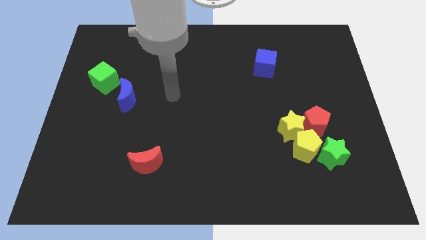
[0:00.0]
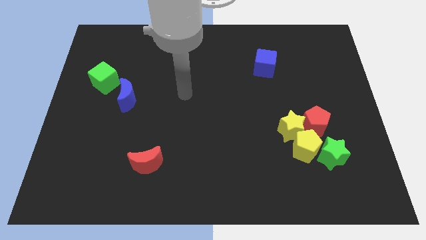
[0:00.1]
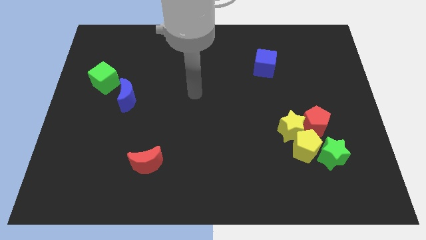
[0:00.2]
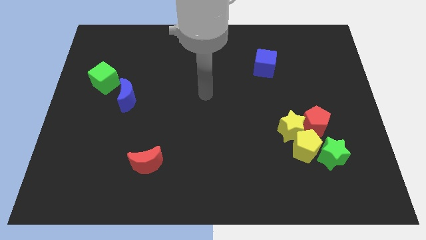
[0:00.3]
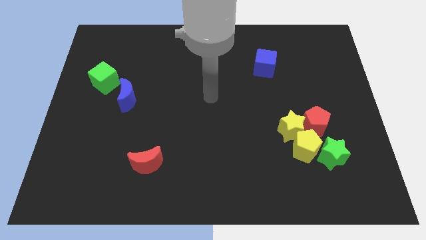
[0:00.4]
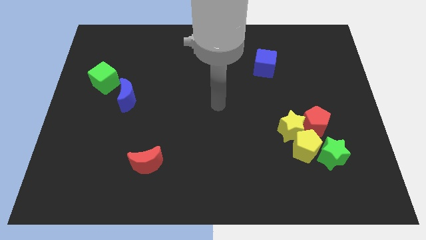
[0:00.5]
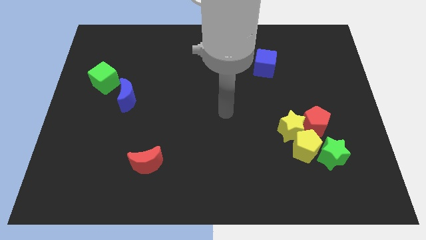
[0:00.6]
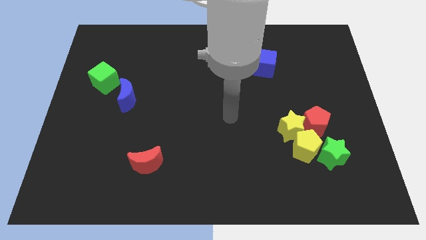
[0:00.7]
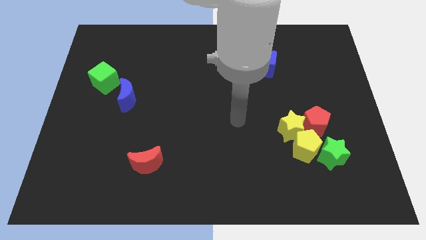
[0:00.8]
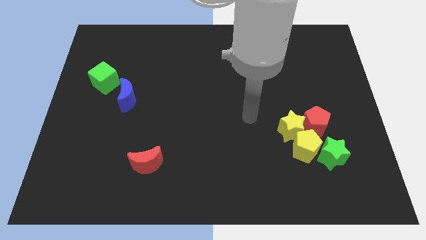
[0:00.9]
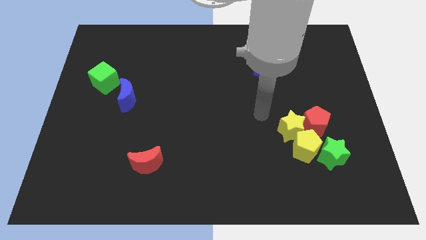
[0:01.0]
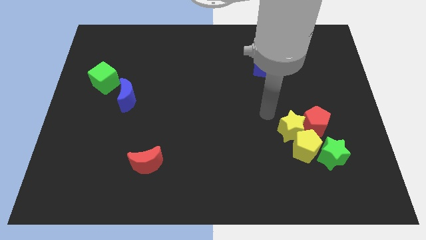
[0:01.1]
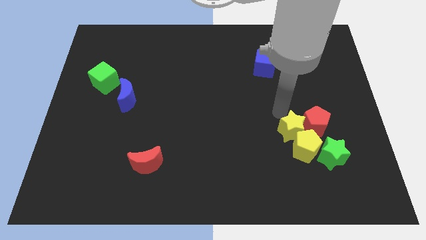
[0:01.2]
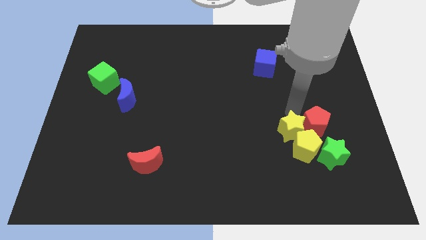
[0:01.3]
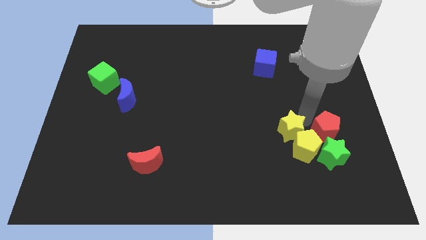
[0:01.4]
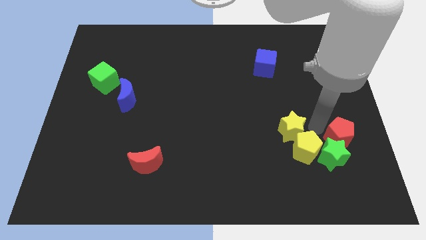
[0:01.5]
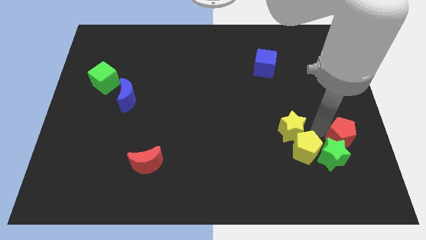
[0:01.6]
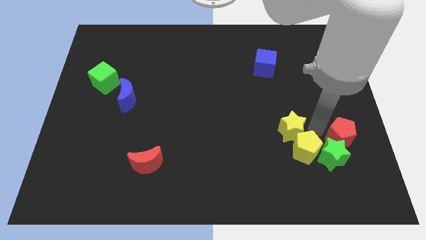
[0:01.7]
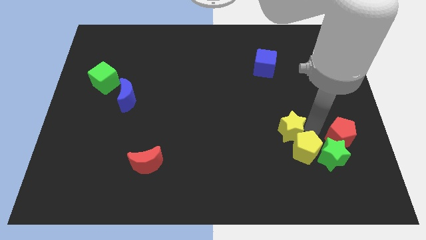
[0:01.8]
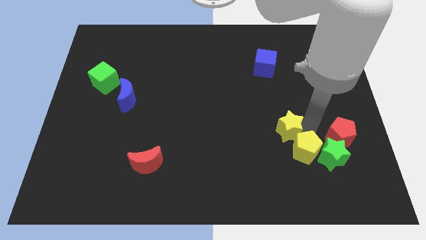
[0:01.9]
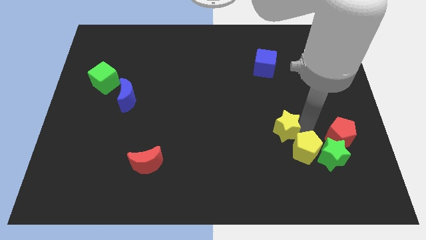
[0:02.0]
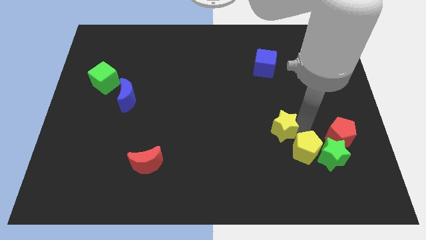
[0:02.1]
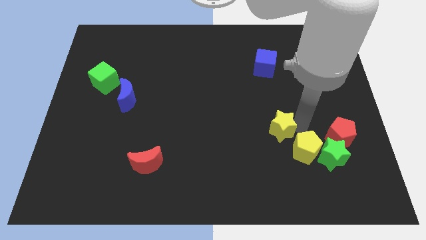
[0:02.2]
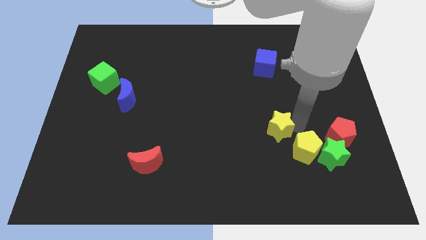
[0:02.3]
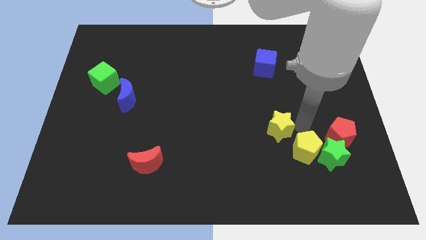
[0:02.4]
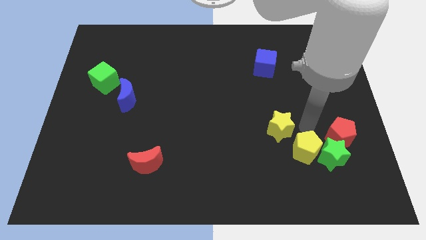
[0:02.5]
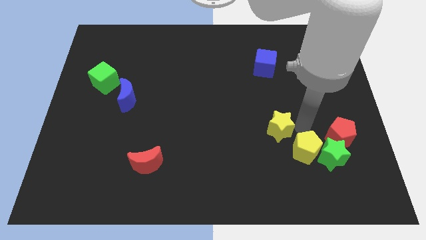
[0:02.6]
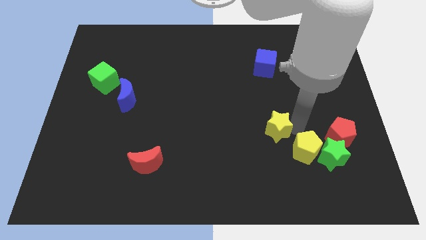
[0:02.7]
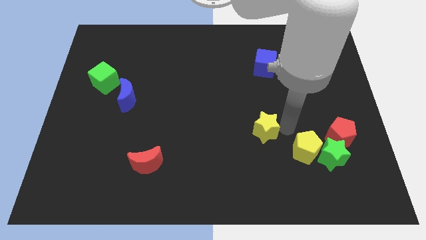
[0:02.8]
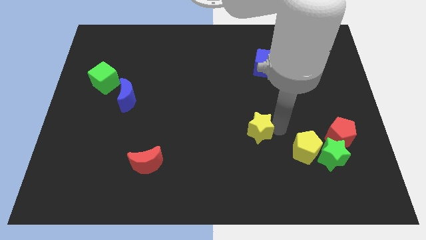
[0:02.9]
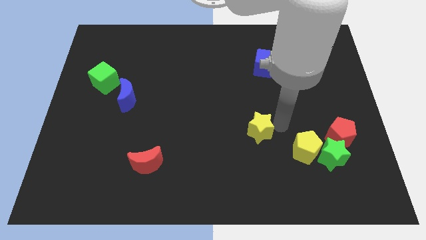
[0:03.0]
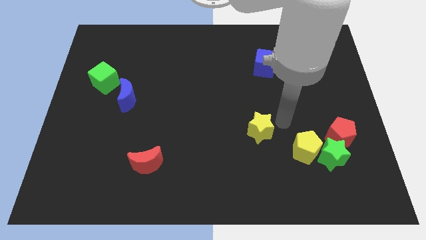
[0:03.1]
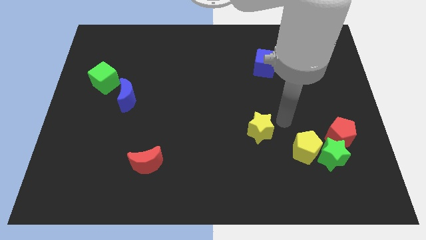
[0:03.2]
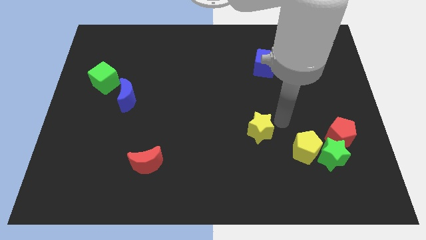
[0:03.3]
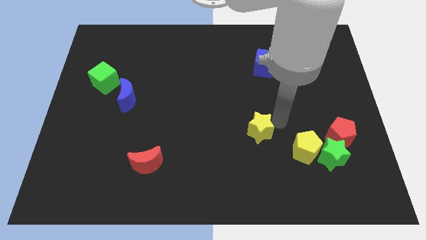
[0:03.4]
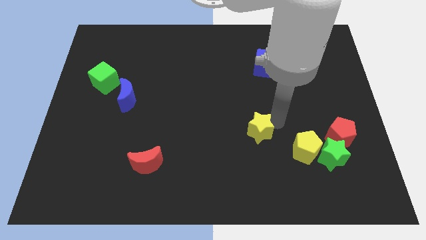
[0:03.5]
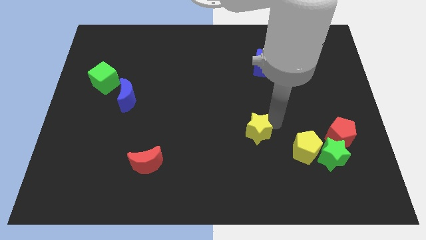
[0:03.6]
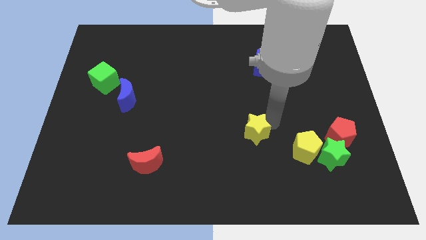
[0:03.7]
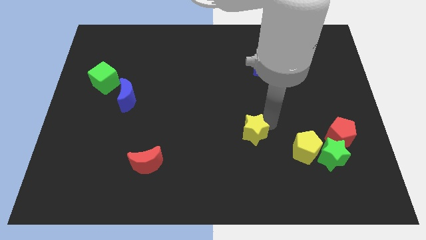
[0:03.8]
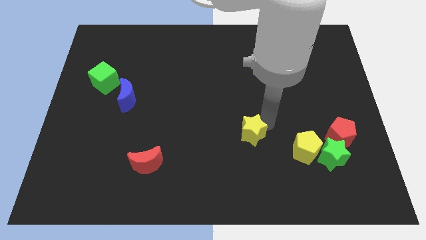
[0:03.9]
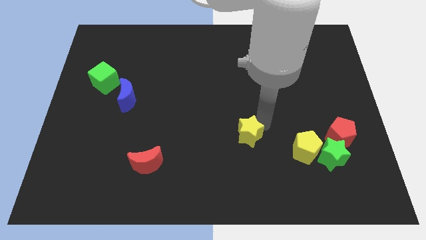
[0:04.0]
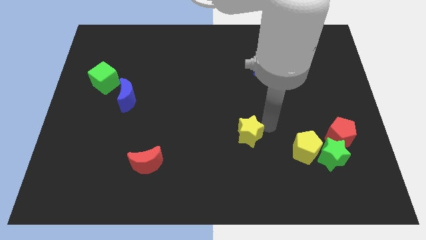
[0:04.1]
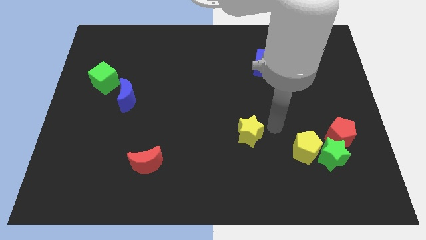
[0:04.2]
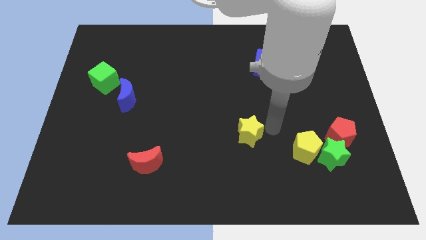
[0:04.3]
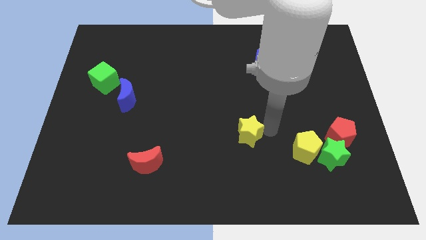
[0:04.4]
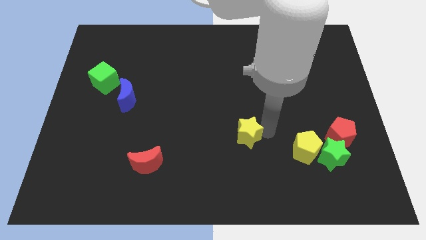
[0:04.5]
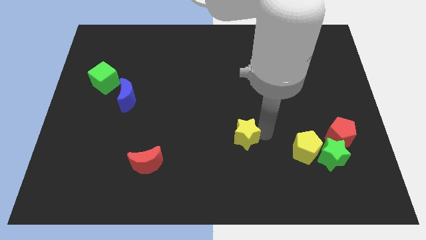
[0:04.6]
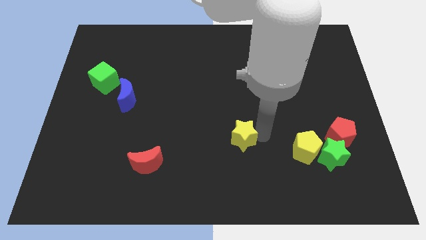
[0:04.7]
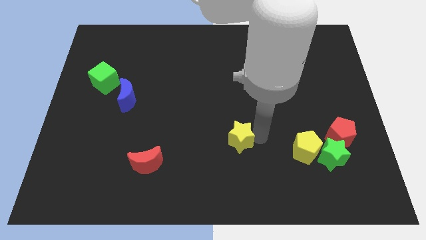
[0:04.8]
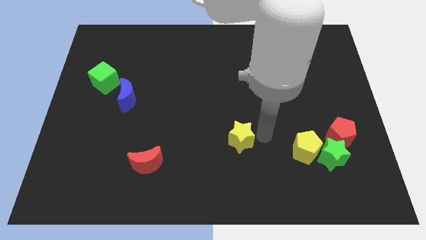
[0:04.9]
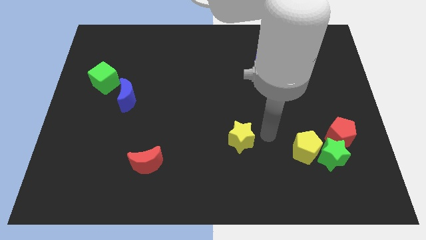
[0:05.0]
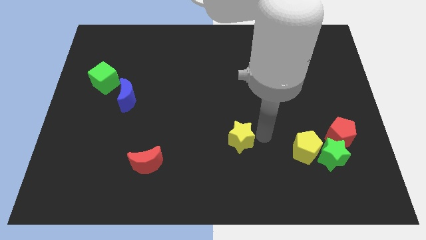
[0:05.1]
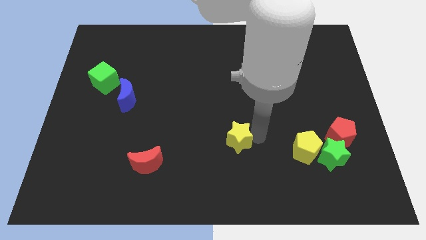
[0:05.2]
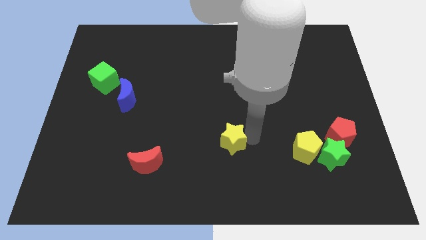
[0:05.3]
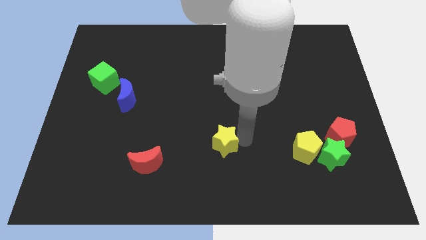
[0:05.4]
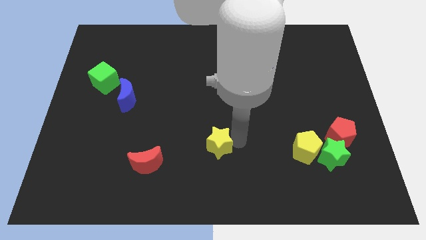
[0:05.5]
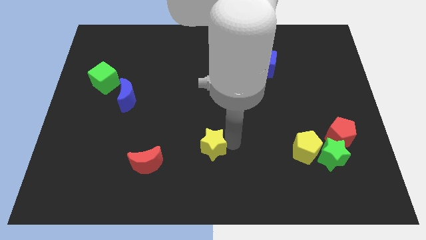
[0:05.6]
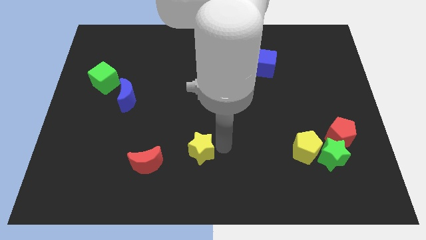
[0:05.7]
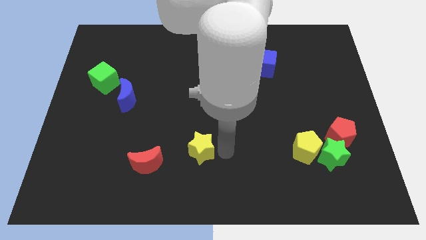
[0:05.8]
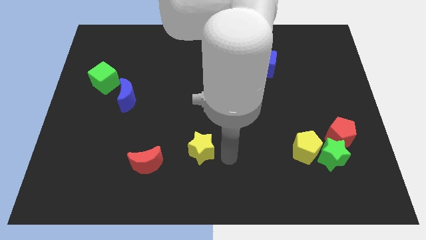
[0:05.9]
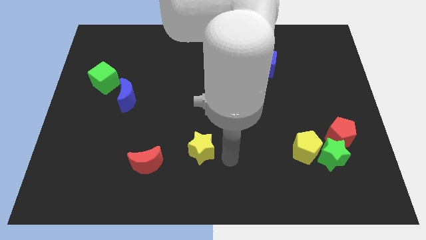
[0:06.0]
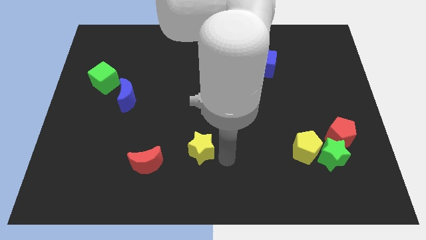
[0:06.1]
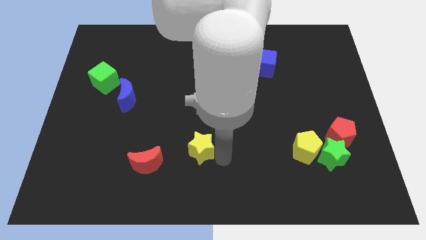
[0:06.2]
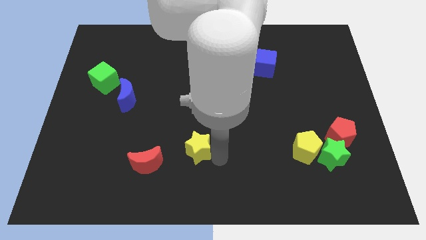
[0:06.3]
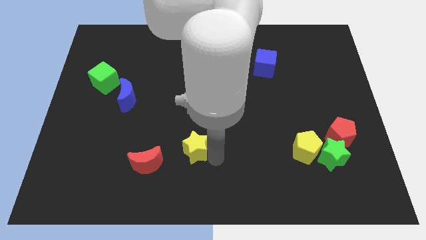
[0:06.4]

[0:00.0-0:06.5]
slide the yellow star to the top right side of the red moon

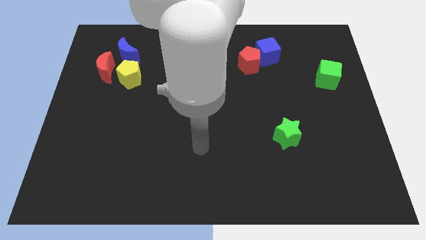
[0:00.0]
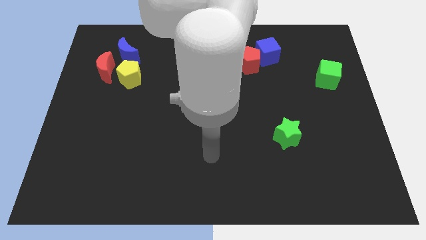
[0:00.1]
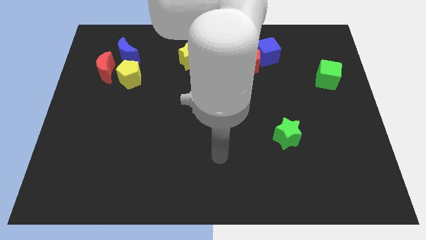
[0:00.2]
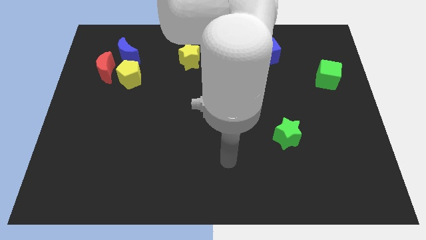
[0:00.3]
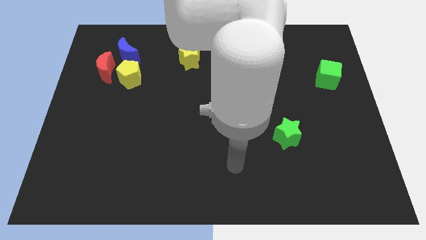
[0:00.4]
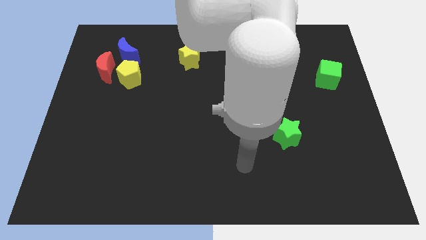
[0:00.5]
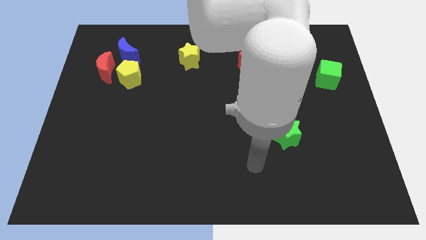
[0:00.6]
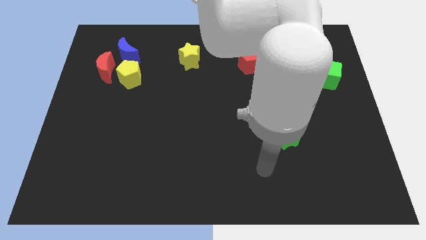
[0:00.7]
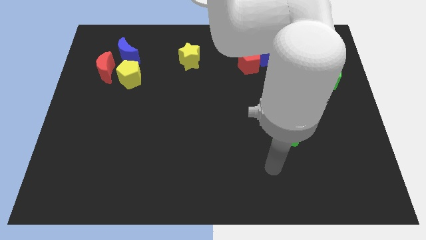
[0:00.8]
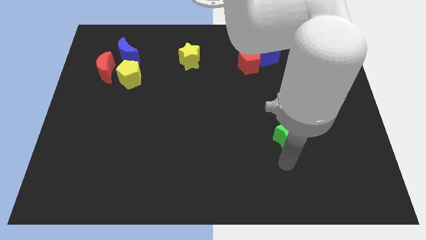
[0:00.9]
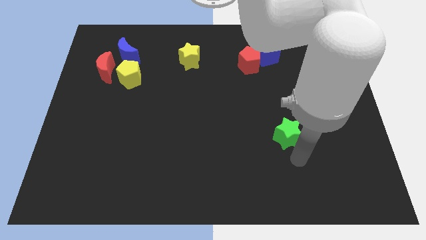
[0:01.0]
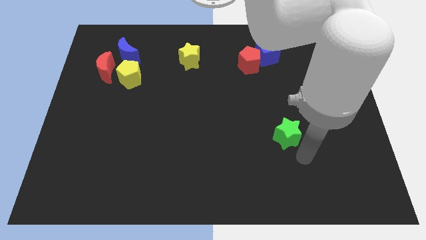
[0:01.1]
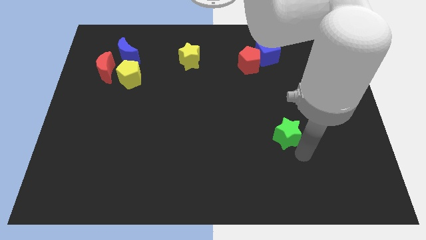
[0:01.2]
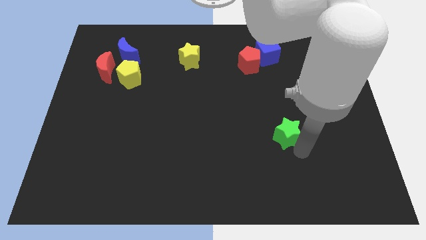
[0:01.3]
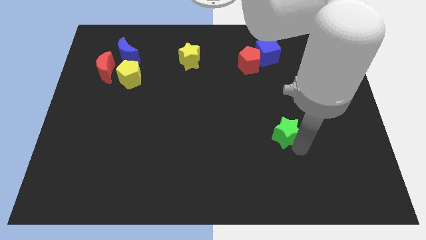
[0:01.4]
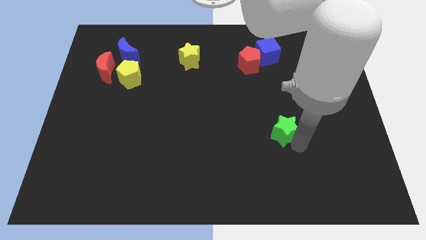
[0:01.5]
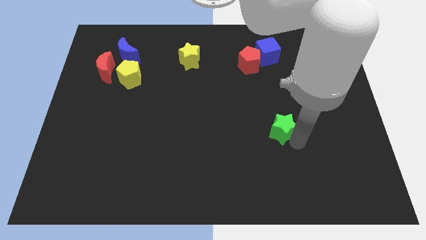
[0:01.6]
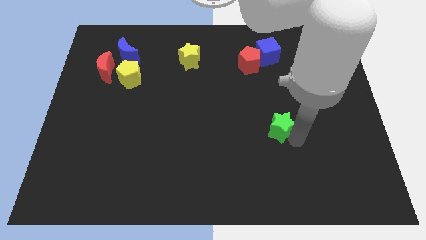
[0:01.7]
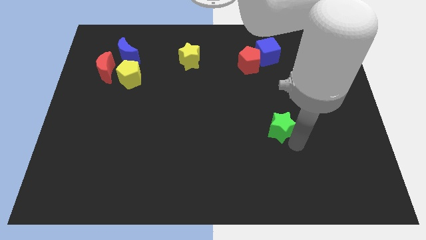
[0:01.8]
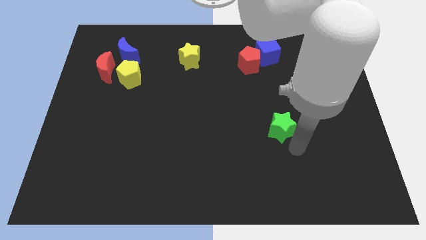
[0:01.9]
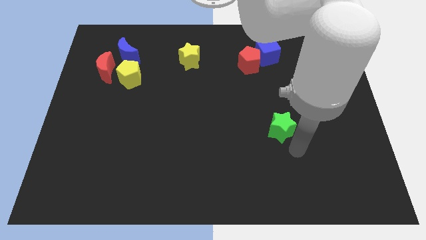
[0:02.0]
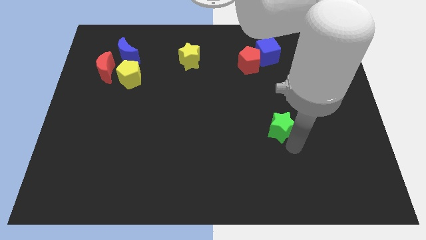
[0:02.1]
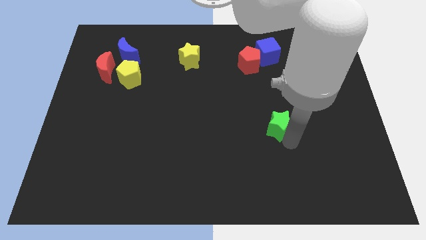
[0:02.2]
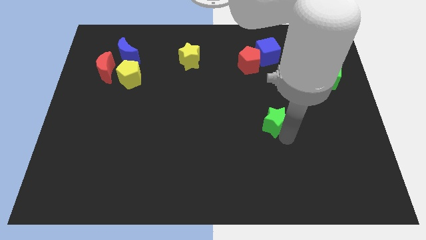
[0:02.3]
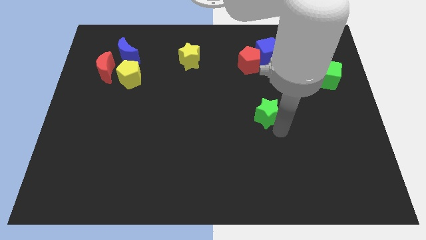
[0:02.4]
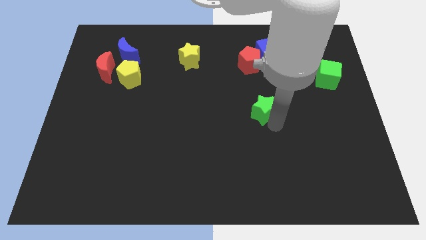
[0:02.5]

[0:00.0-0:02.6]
move the green star to the bottom of the red pentagon
